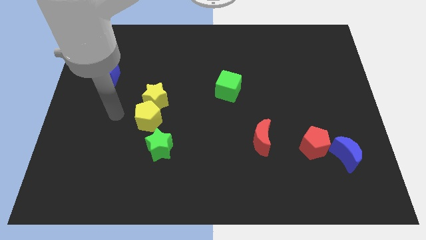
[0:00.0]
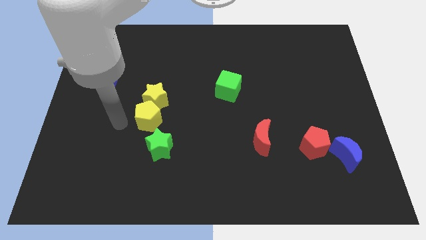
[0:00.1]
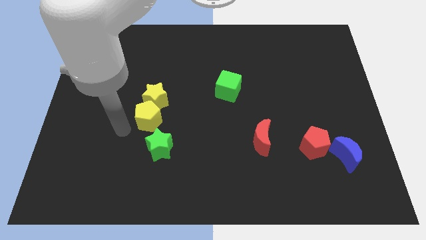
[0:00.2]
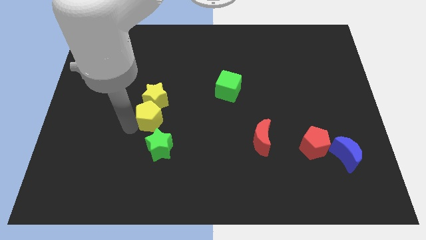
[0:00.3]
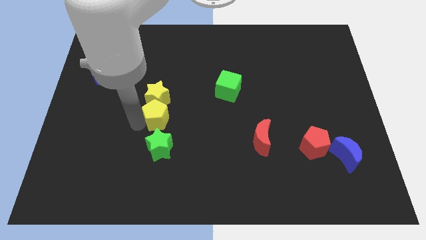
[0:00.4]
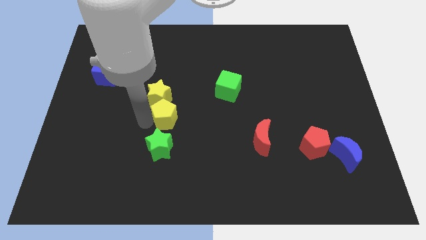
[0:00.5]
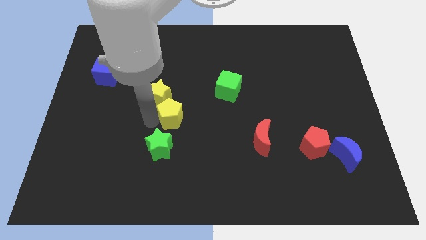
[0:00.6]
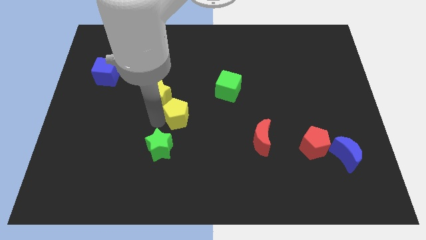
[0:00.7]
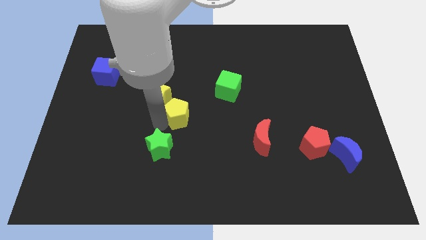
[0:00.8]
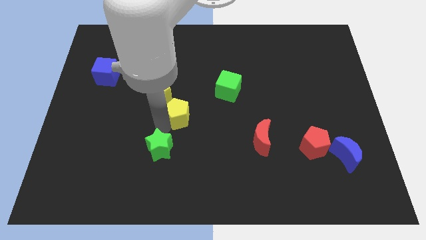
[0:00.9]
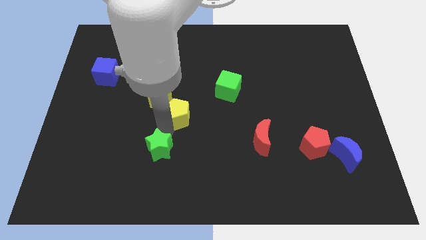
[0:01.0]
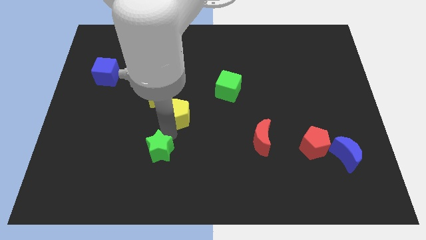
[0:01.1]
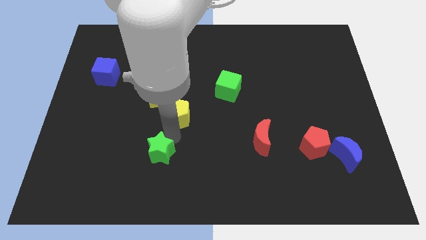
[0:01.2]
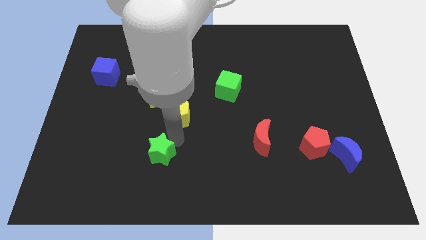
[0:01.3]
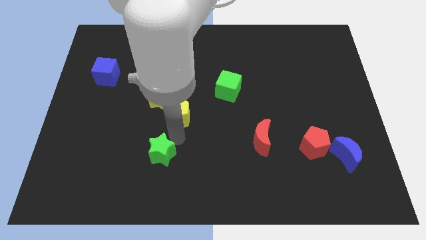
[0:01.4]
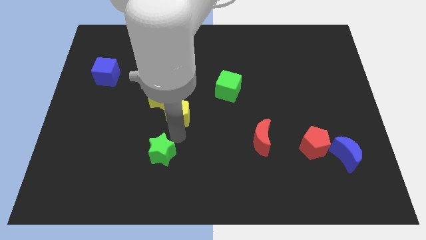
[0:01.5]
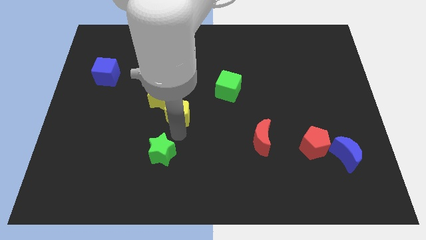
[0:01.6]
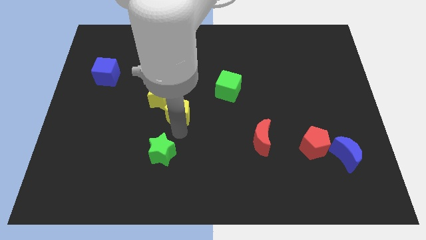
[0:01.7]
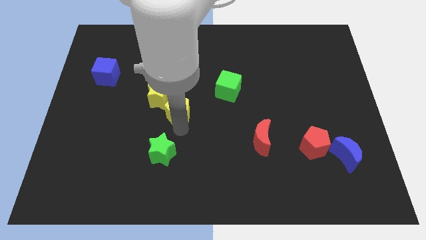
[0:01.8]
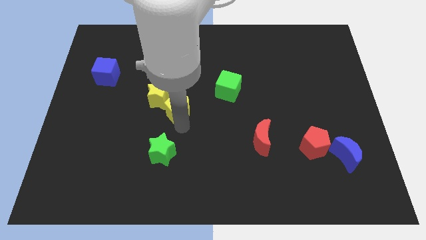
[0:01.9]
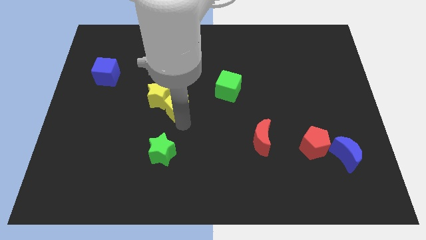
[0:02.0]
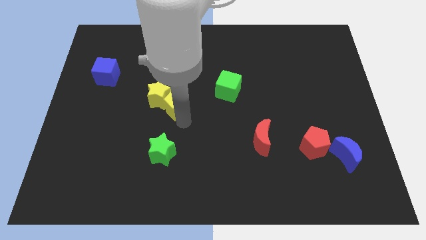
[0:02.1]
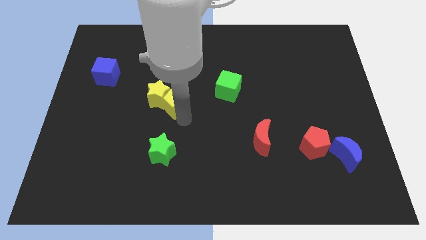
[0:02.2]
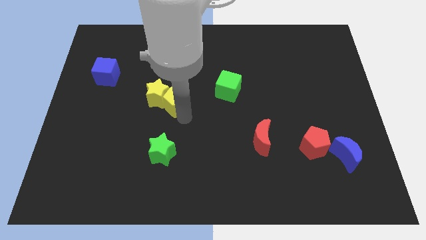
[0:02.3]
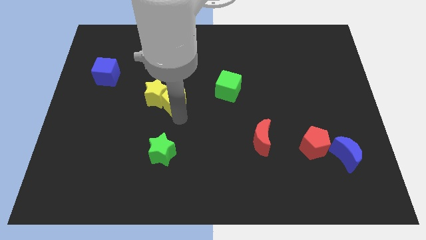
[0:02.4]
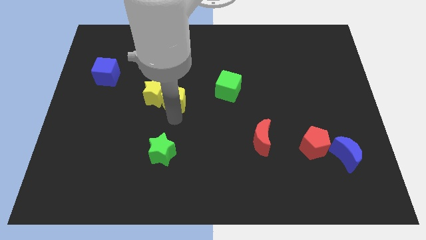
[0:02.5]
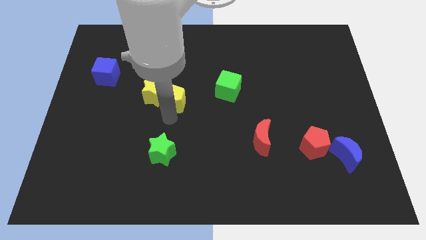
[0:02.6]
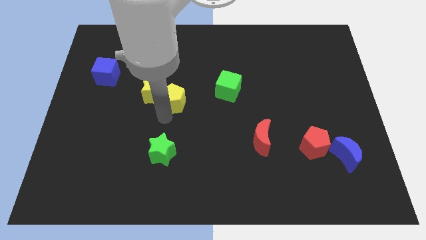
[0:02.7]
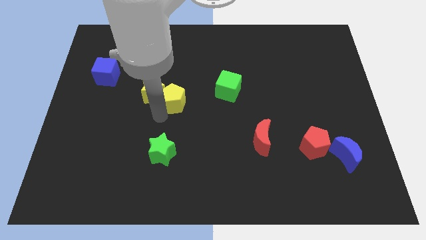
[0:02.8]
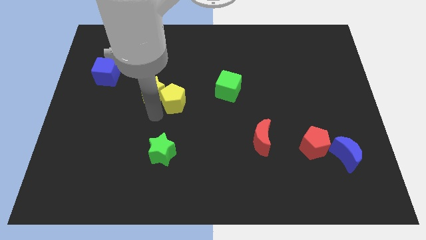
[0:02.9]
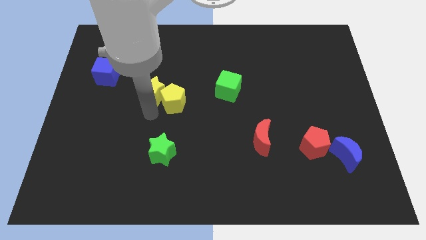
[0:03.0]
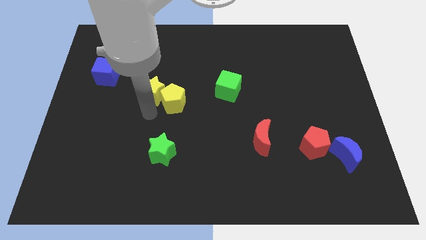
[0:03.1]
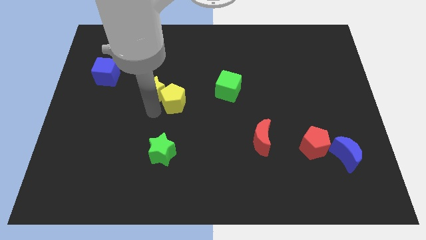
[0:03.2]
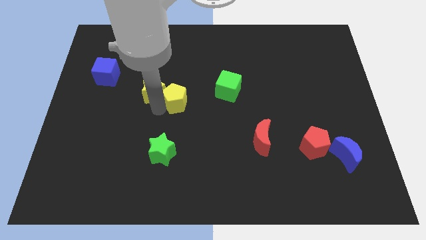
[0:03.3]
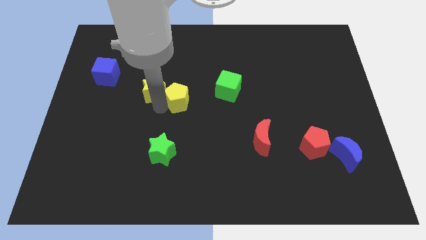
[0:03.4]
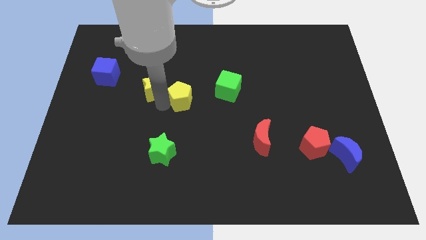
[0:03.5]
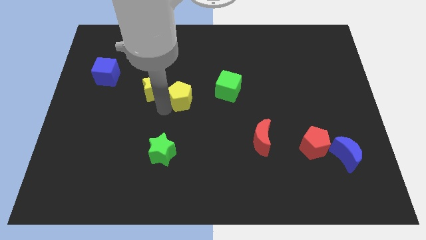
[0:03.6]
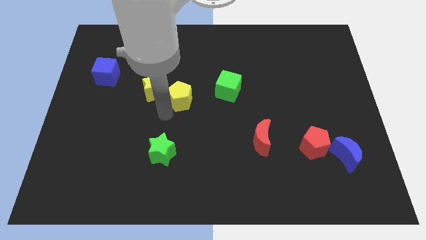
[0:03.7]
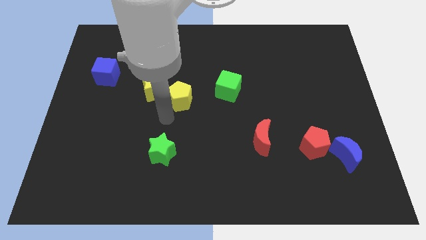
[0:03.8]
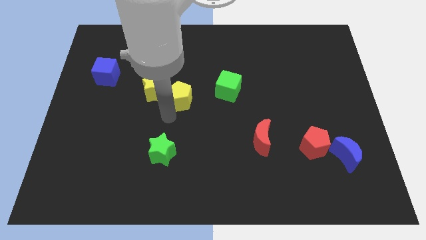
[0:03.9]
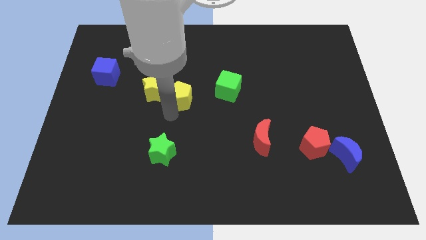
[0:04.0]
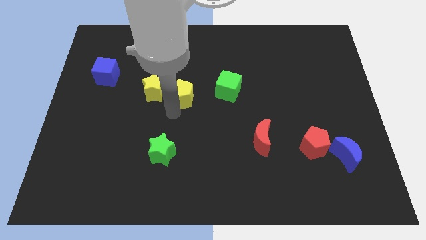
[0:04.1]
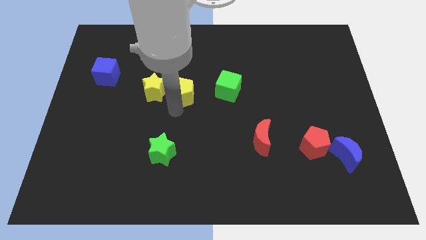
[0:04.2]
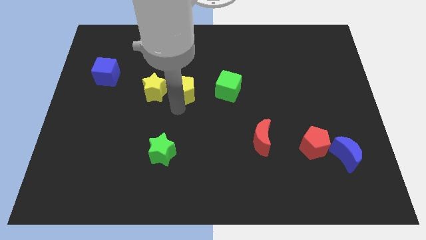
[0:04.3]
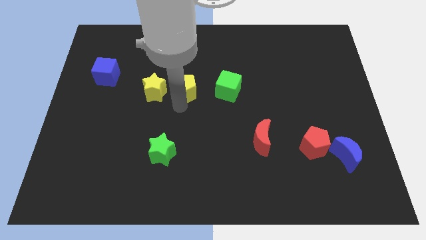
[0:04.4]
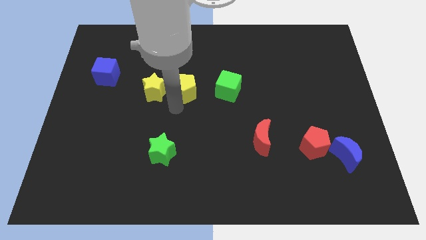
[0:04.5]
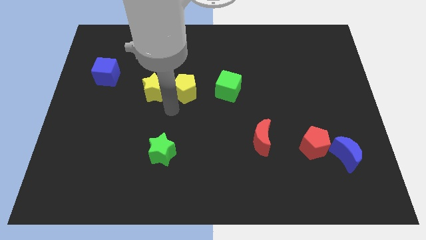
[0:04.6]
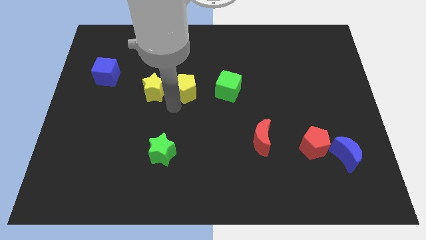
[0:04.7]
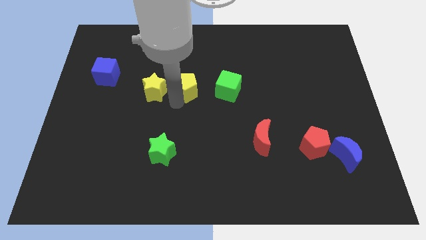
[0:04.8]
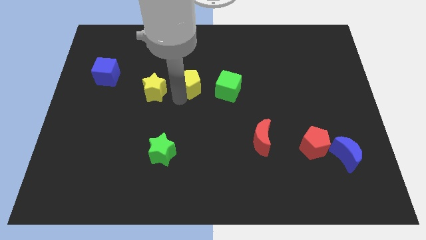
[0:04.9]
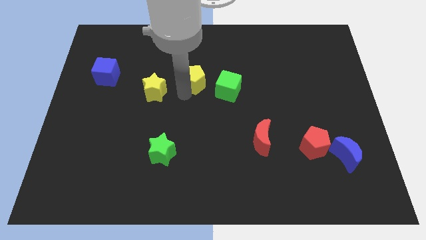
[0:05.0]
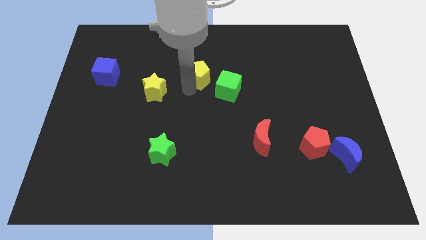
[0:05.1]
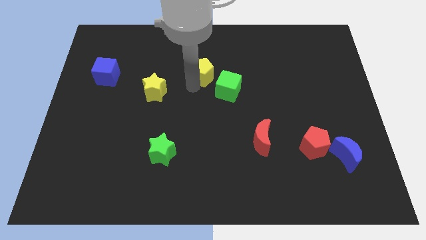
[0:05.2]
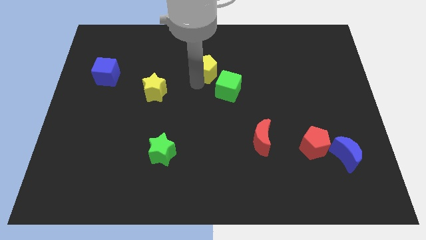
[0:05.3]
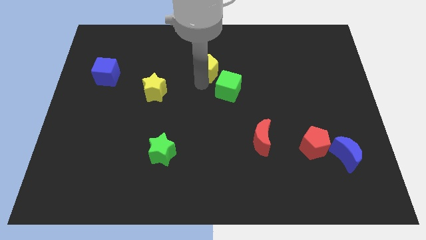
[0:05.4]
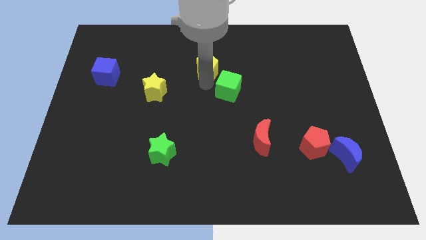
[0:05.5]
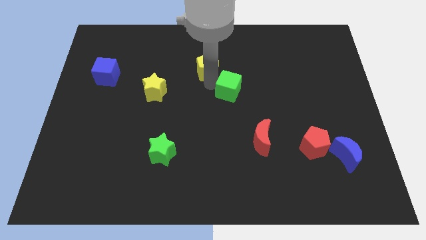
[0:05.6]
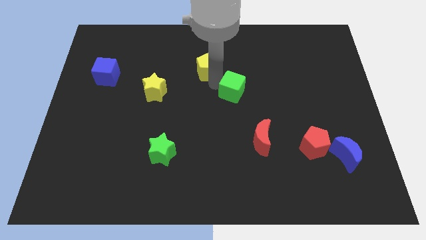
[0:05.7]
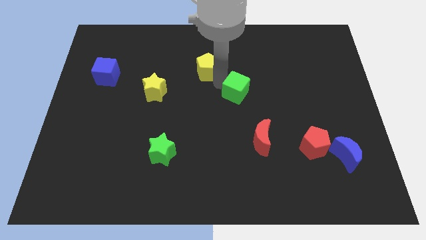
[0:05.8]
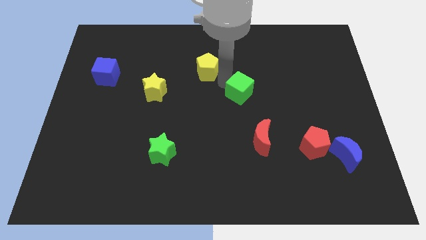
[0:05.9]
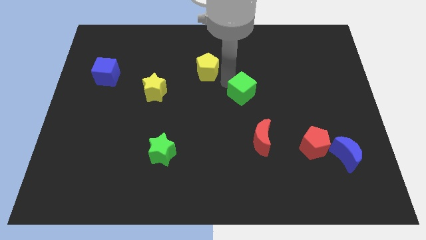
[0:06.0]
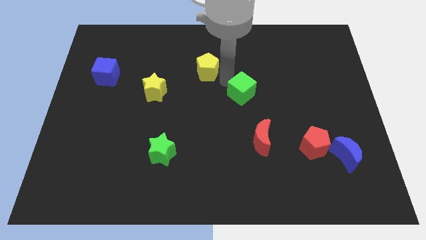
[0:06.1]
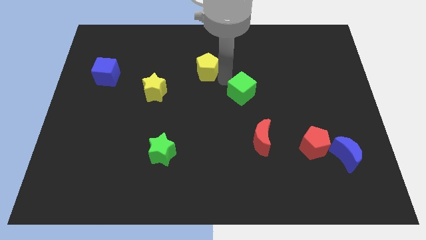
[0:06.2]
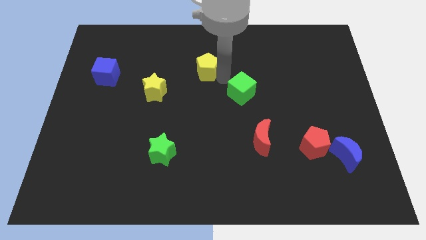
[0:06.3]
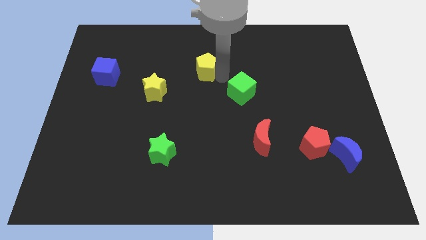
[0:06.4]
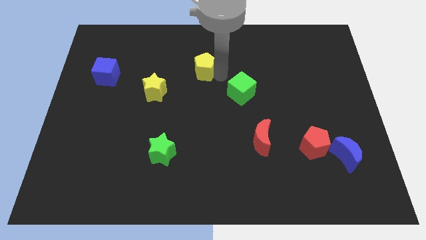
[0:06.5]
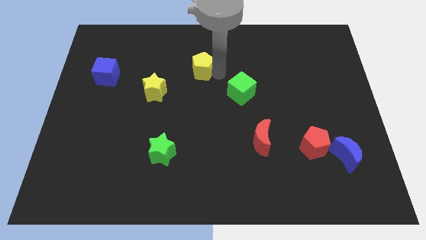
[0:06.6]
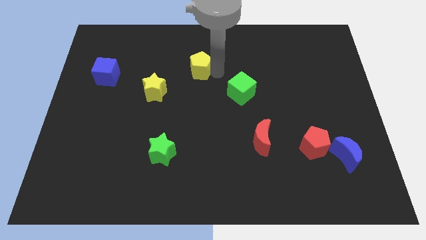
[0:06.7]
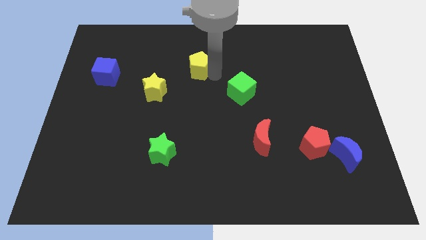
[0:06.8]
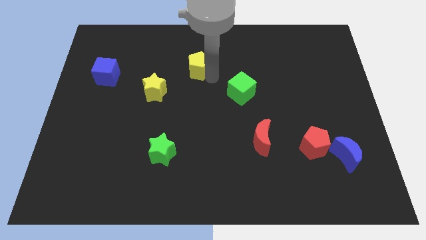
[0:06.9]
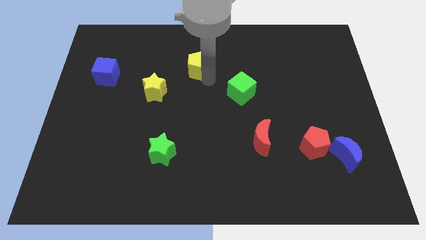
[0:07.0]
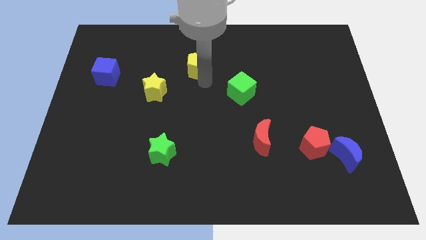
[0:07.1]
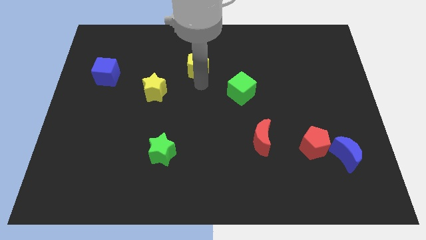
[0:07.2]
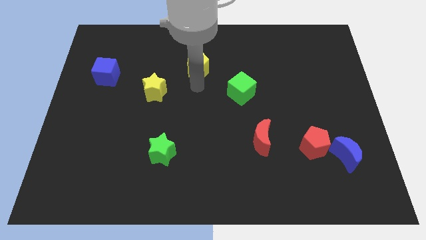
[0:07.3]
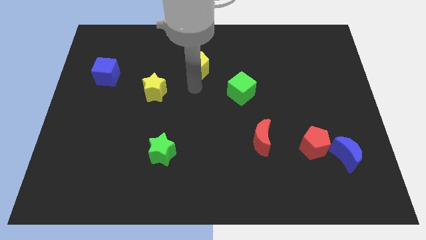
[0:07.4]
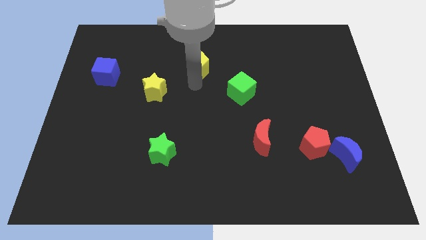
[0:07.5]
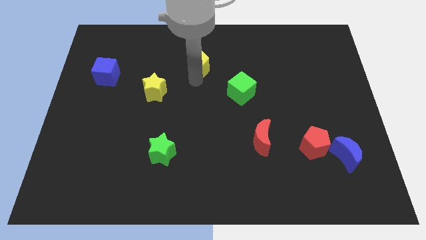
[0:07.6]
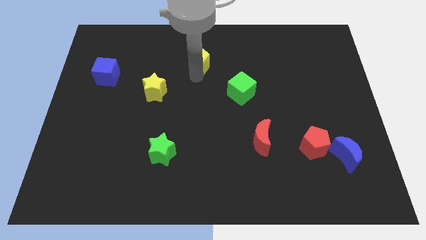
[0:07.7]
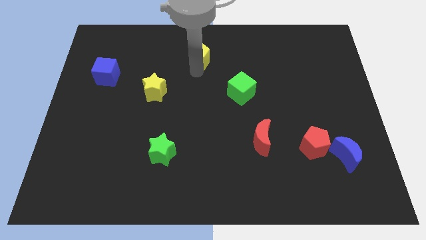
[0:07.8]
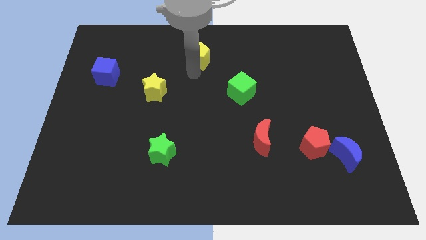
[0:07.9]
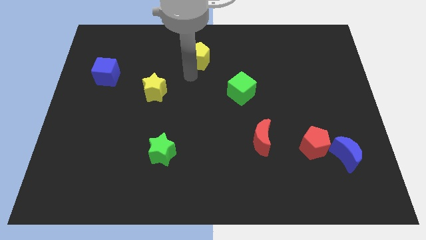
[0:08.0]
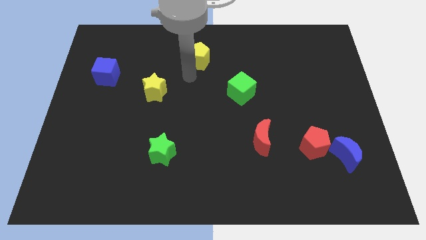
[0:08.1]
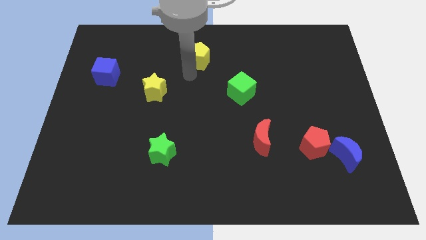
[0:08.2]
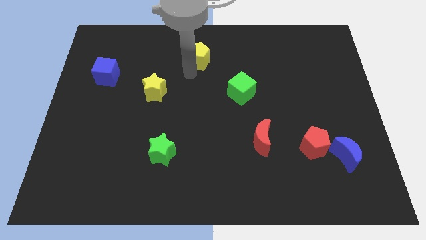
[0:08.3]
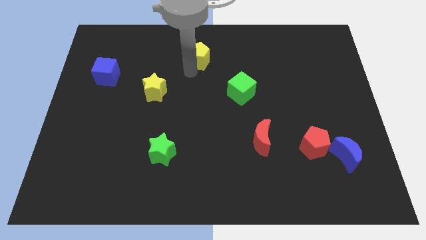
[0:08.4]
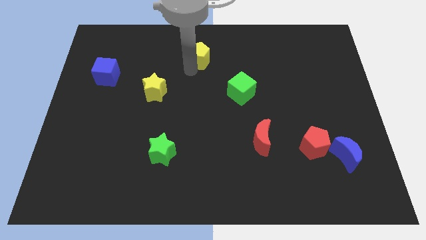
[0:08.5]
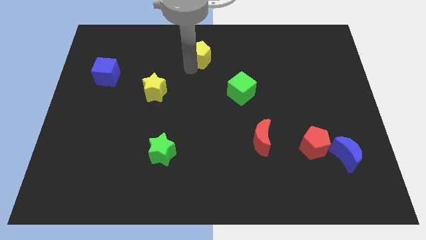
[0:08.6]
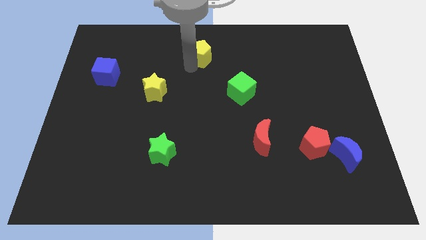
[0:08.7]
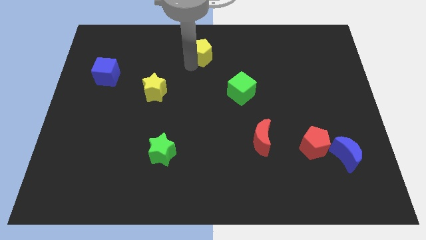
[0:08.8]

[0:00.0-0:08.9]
move the yellow pentagon to the towards your base
